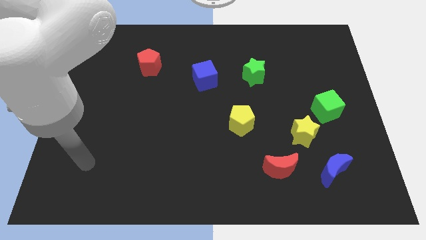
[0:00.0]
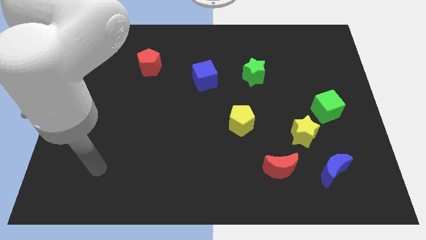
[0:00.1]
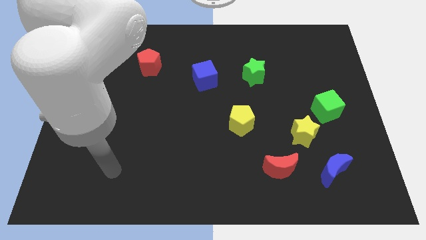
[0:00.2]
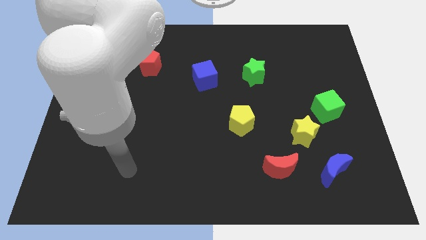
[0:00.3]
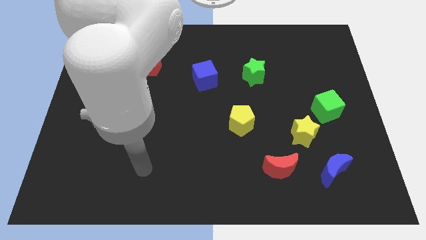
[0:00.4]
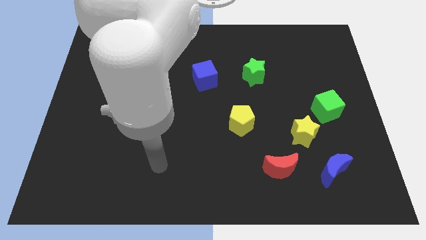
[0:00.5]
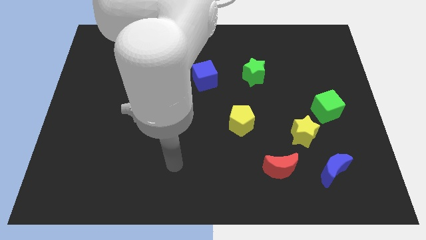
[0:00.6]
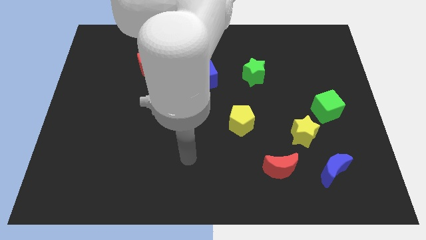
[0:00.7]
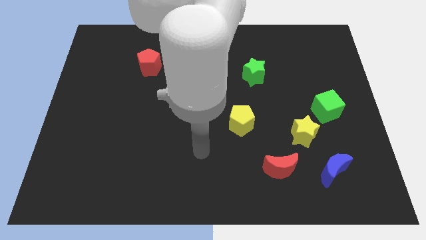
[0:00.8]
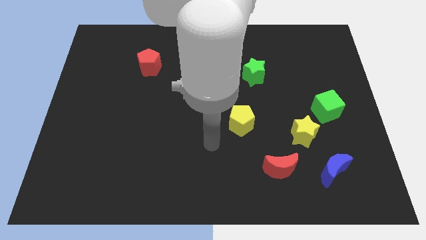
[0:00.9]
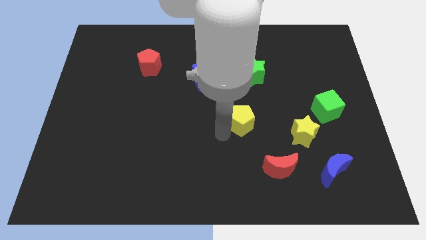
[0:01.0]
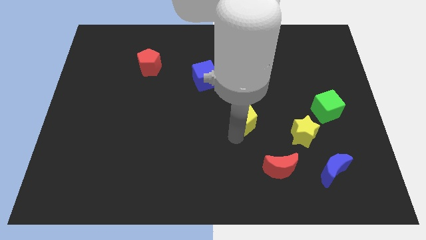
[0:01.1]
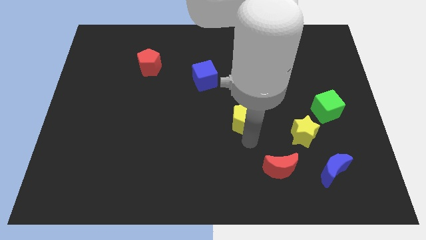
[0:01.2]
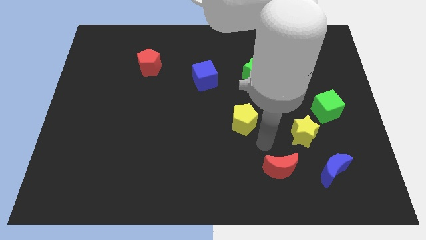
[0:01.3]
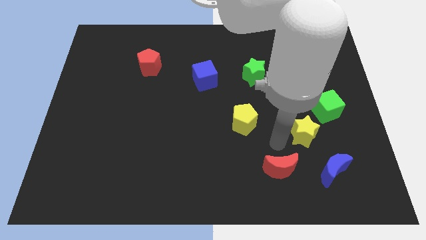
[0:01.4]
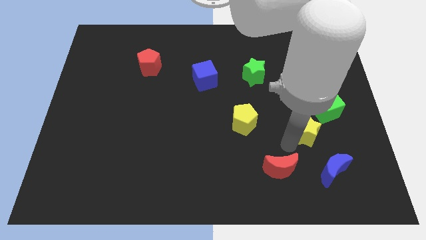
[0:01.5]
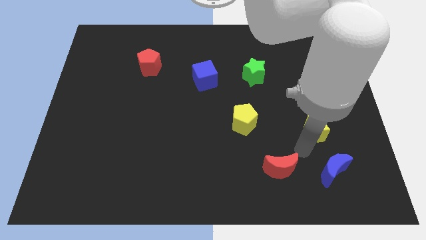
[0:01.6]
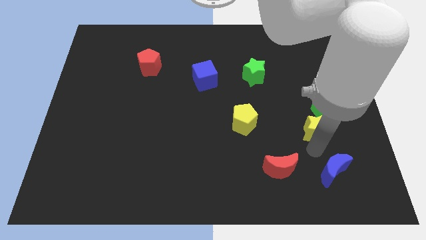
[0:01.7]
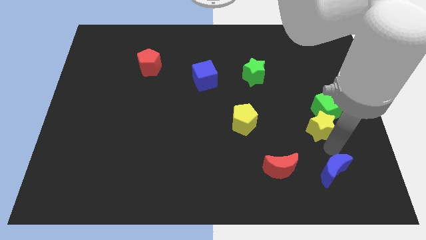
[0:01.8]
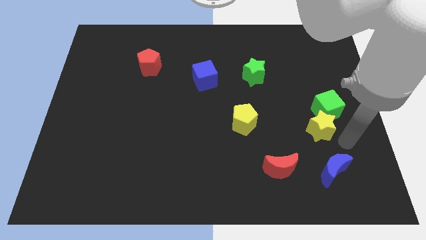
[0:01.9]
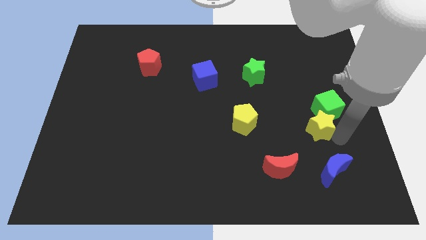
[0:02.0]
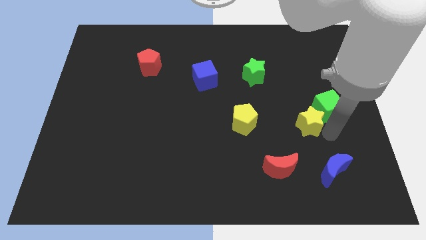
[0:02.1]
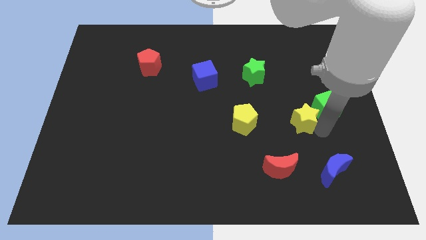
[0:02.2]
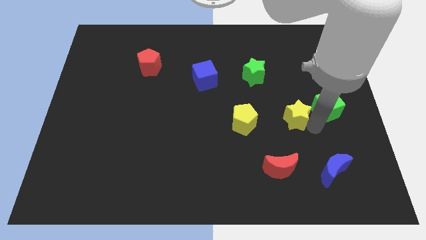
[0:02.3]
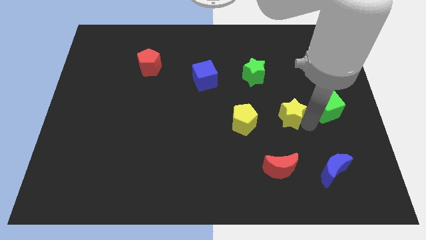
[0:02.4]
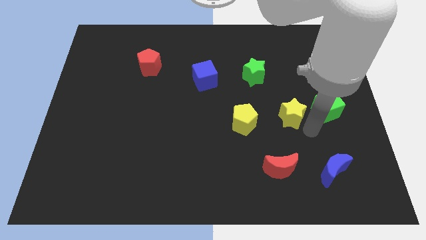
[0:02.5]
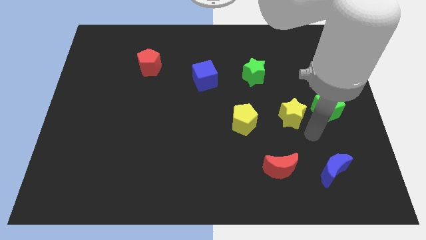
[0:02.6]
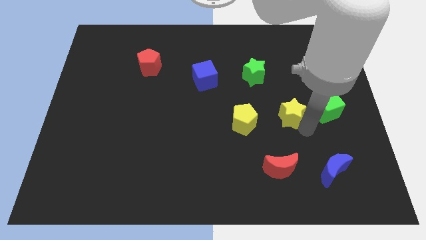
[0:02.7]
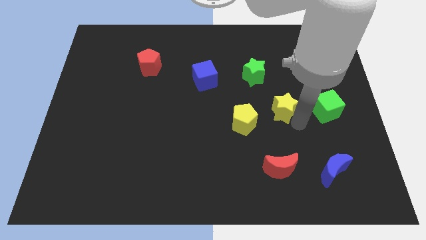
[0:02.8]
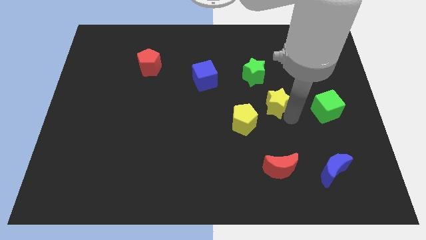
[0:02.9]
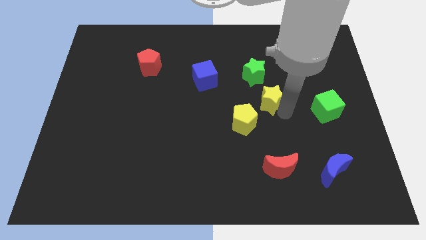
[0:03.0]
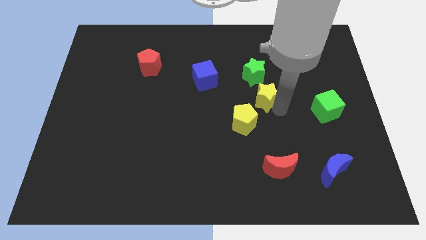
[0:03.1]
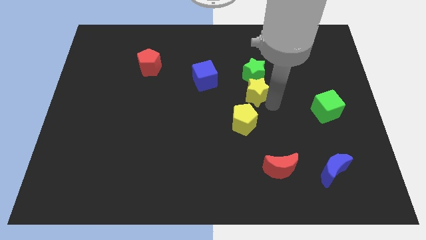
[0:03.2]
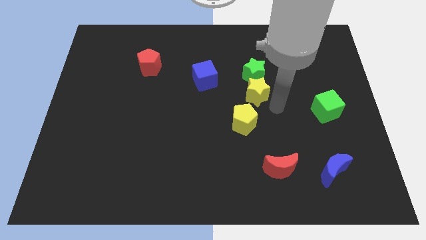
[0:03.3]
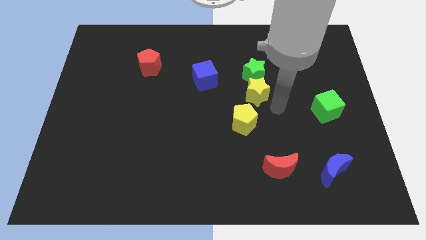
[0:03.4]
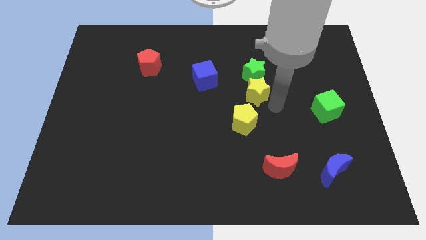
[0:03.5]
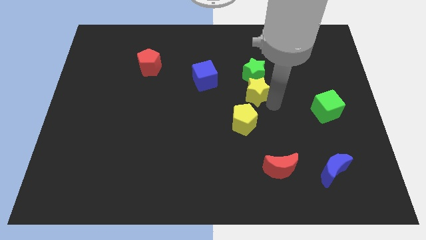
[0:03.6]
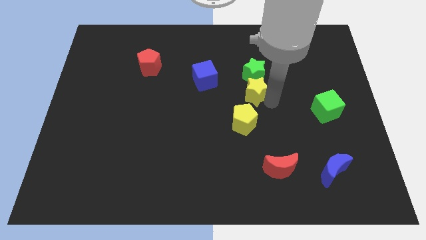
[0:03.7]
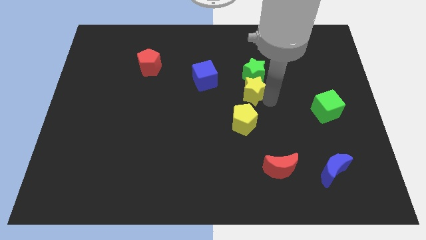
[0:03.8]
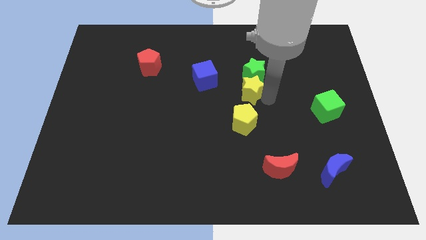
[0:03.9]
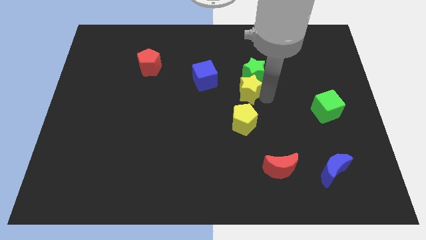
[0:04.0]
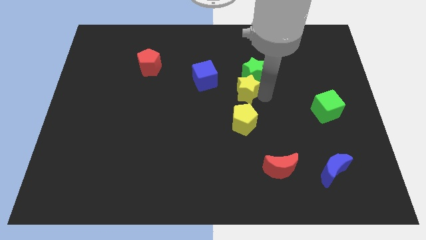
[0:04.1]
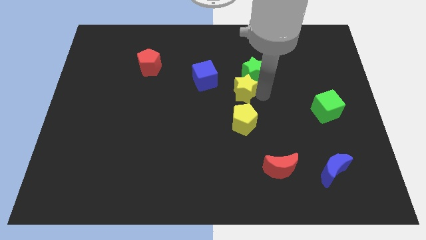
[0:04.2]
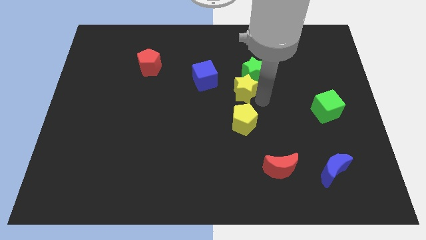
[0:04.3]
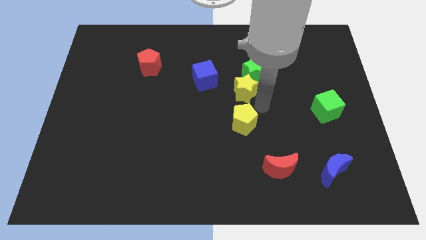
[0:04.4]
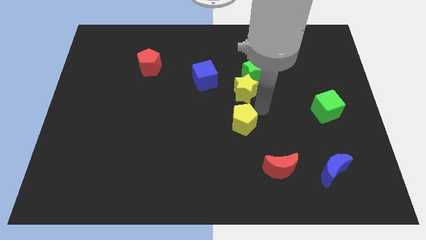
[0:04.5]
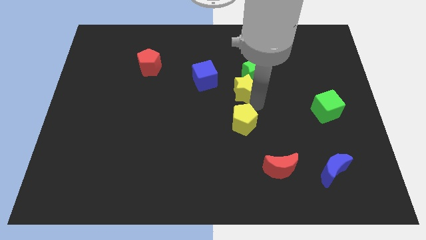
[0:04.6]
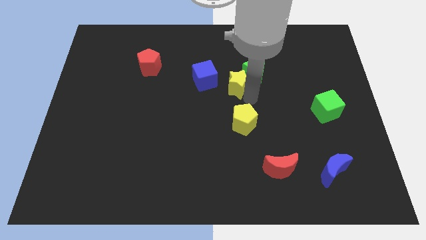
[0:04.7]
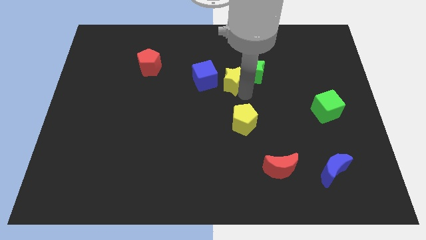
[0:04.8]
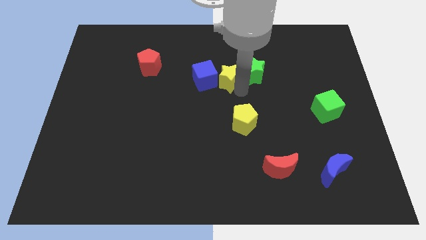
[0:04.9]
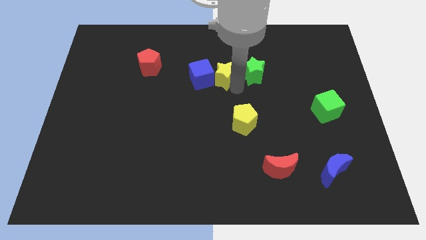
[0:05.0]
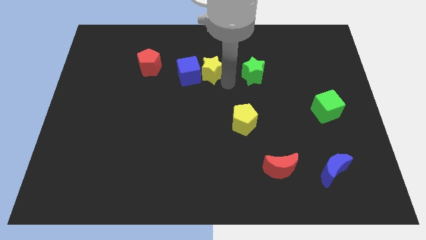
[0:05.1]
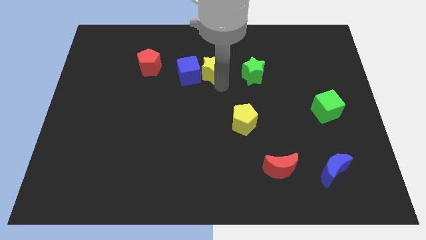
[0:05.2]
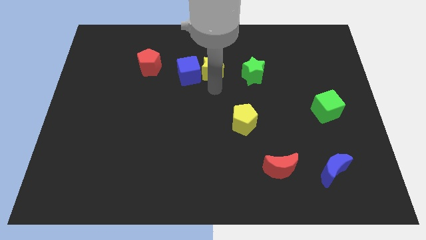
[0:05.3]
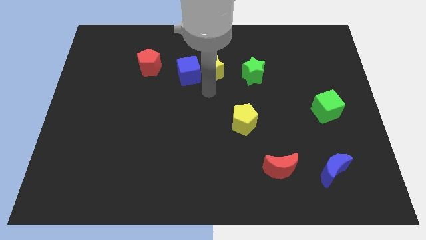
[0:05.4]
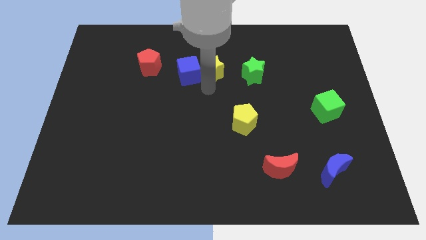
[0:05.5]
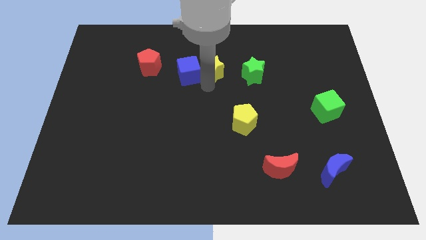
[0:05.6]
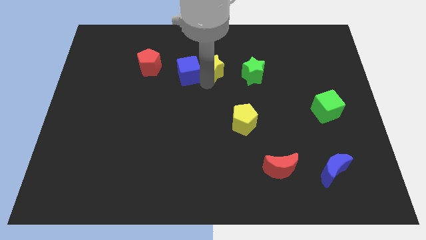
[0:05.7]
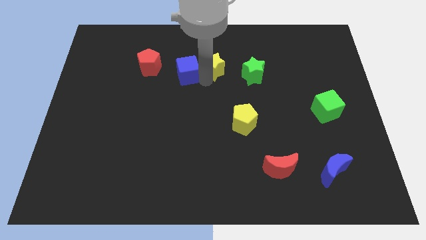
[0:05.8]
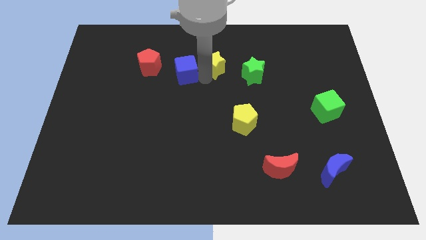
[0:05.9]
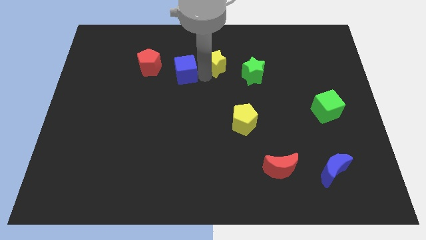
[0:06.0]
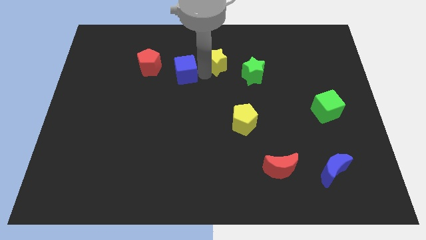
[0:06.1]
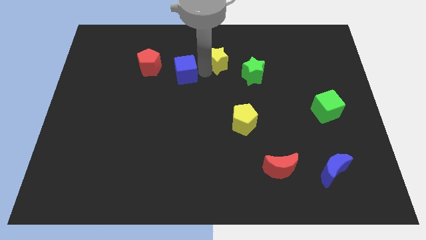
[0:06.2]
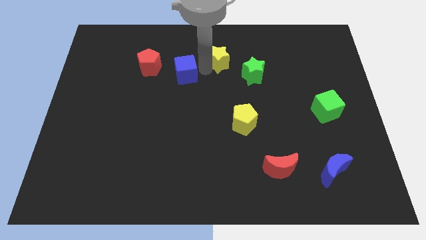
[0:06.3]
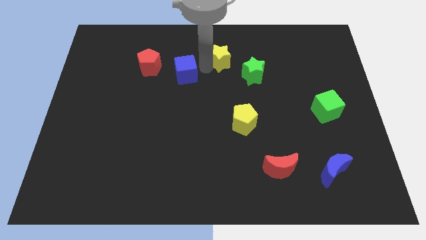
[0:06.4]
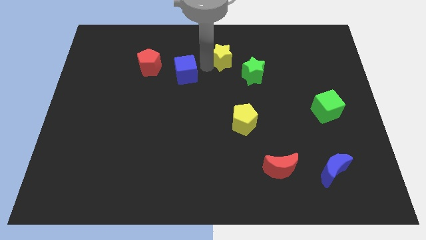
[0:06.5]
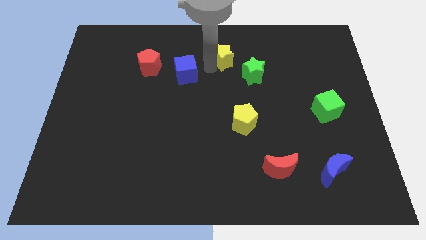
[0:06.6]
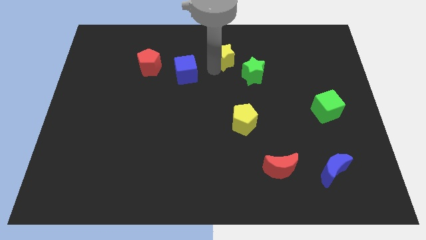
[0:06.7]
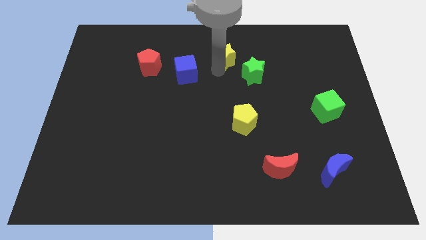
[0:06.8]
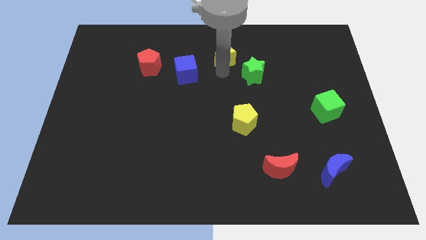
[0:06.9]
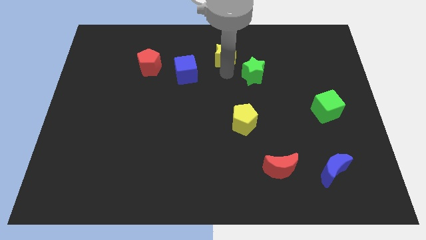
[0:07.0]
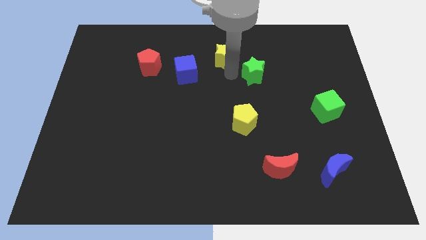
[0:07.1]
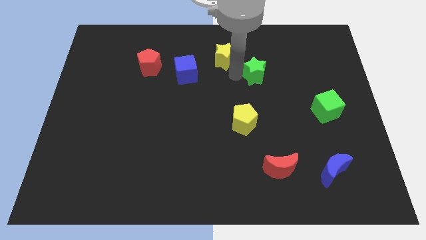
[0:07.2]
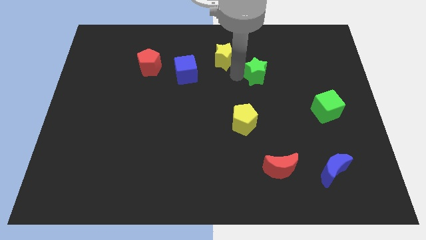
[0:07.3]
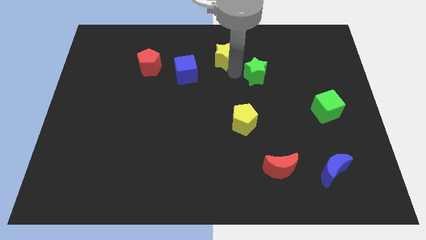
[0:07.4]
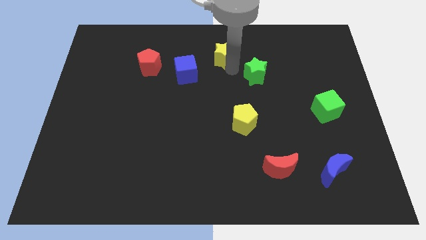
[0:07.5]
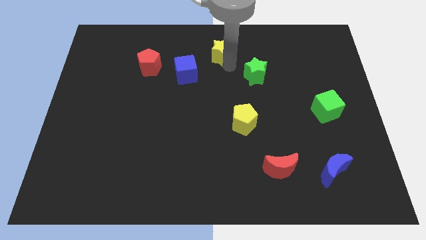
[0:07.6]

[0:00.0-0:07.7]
move the yellow star to the top
